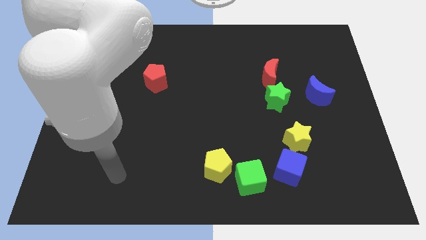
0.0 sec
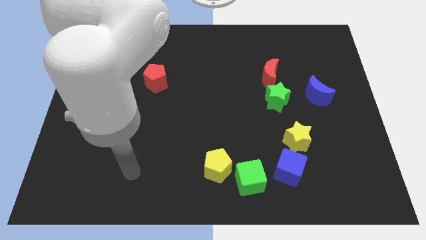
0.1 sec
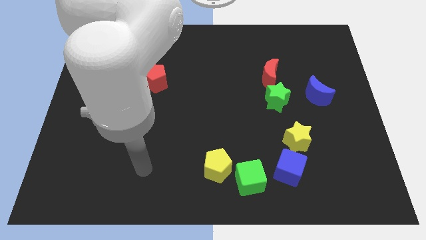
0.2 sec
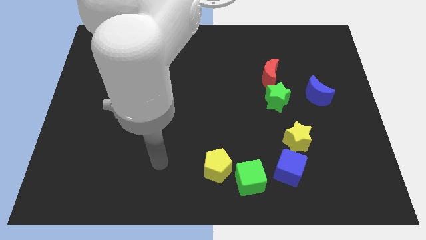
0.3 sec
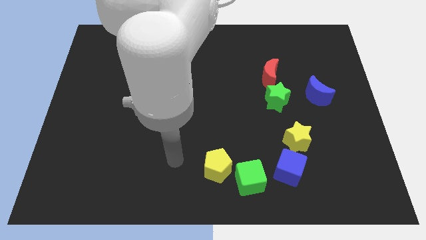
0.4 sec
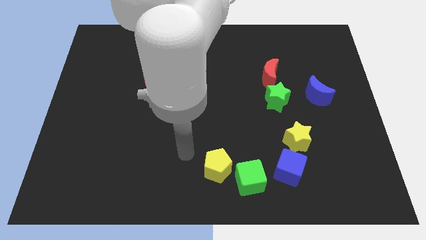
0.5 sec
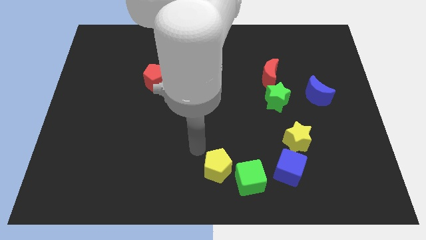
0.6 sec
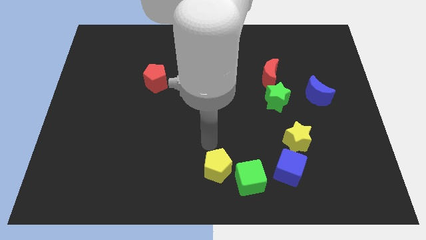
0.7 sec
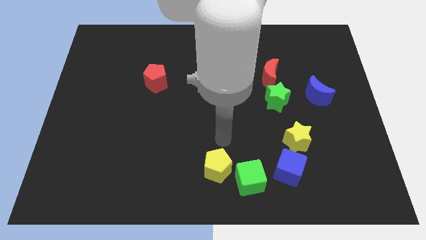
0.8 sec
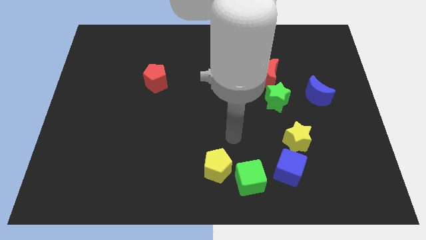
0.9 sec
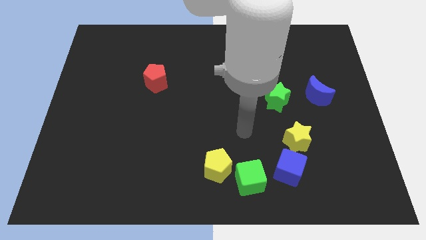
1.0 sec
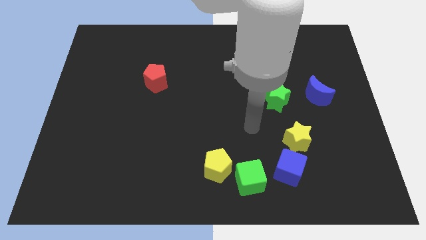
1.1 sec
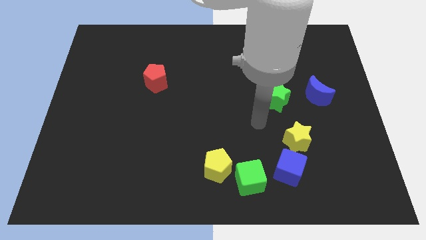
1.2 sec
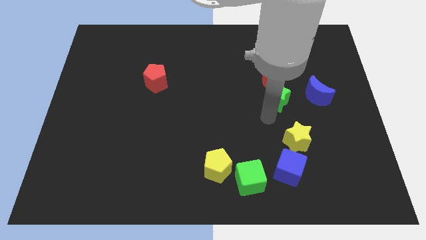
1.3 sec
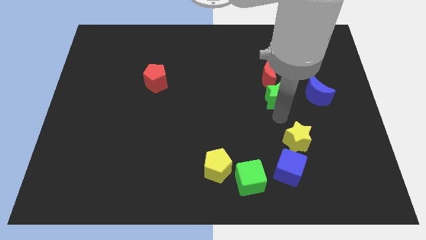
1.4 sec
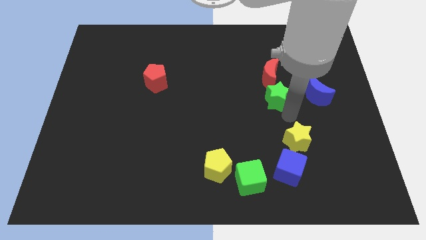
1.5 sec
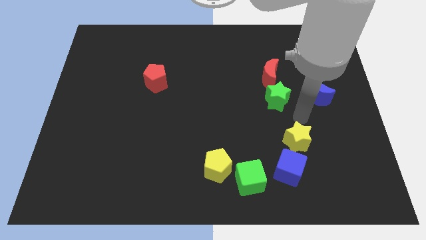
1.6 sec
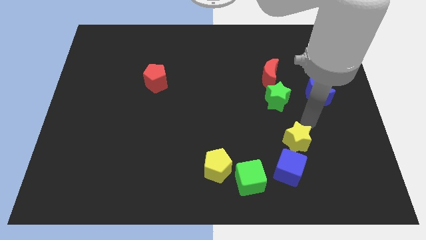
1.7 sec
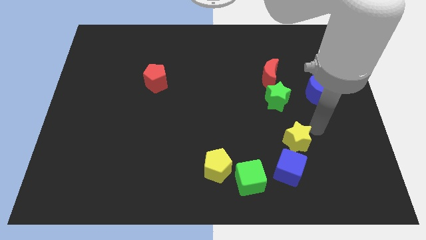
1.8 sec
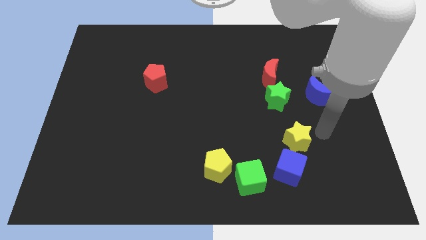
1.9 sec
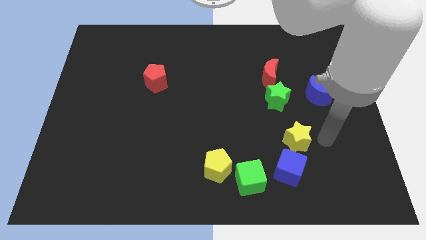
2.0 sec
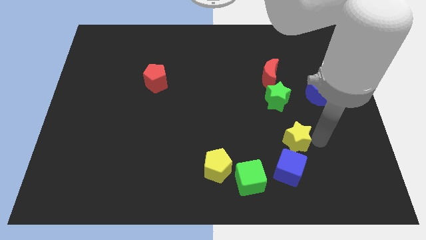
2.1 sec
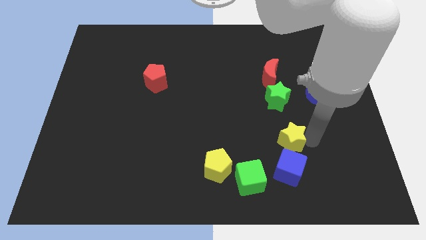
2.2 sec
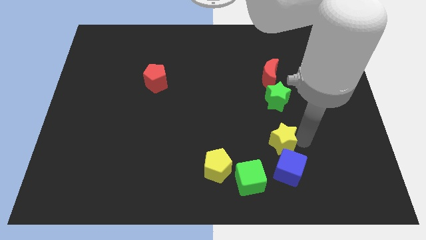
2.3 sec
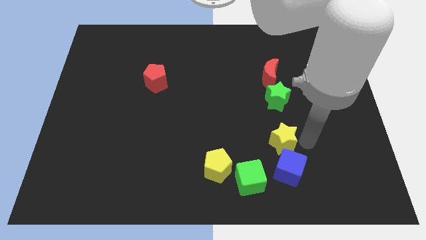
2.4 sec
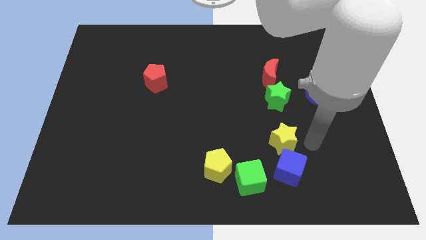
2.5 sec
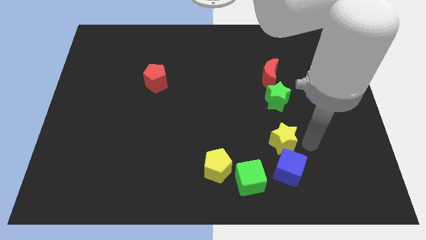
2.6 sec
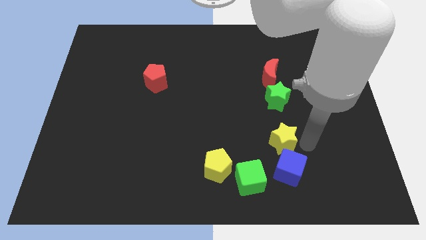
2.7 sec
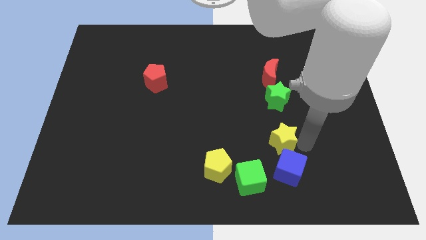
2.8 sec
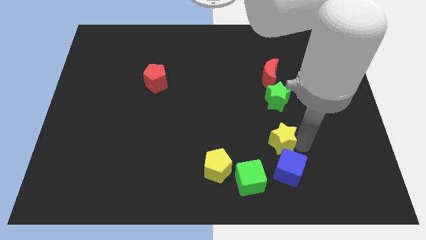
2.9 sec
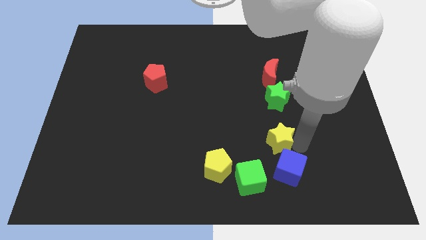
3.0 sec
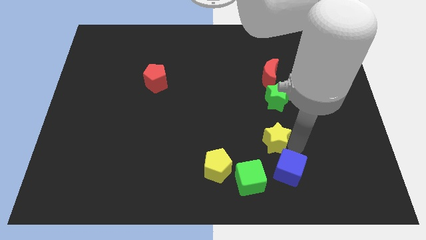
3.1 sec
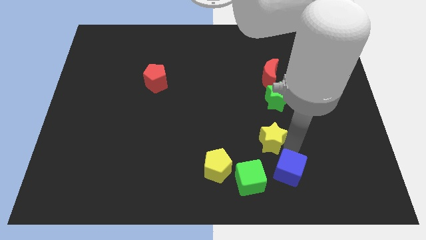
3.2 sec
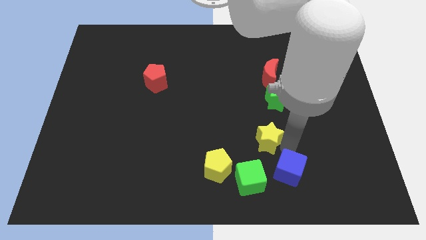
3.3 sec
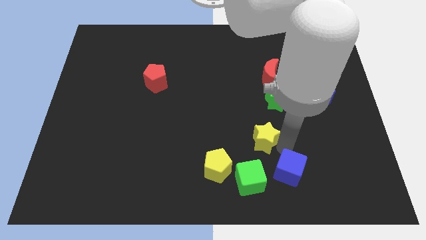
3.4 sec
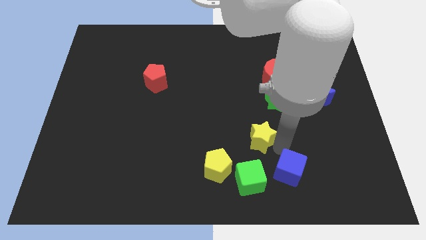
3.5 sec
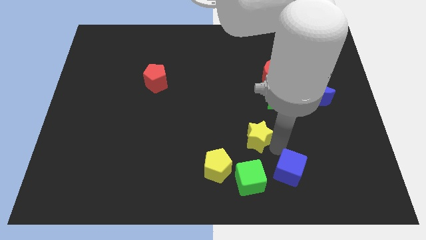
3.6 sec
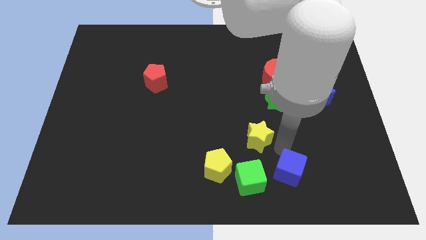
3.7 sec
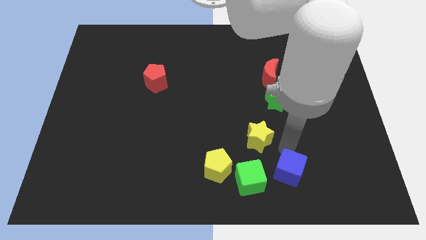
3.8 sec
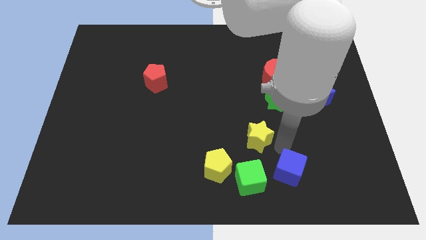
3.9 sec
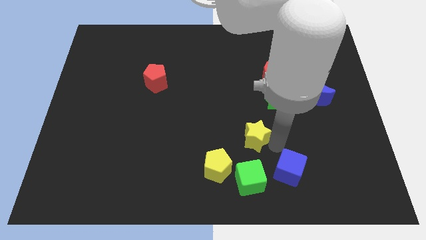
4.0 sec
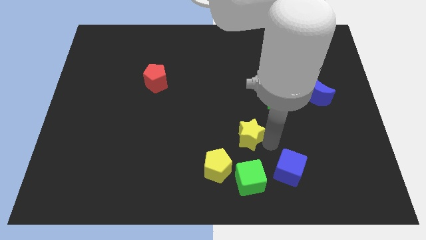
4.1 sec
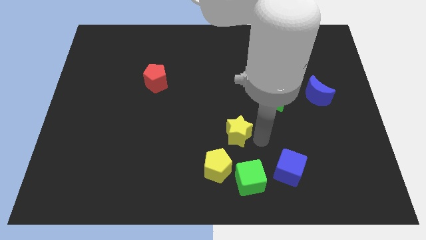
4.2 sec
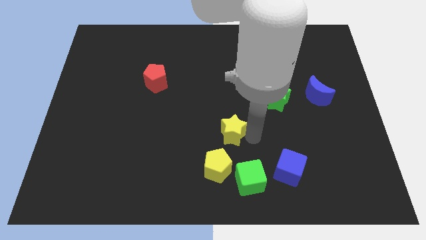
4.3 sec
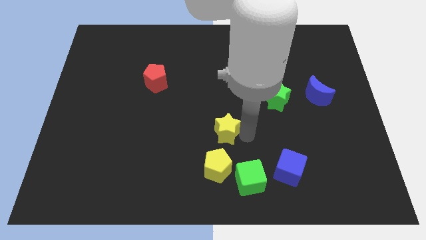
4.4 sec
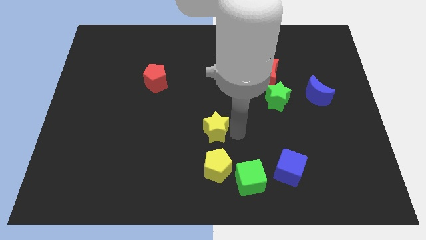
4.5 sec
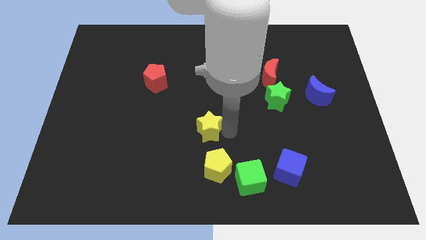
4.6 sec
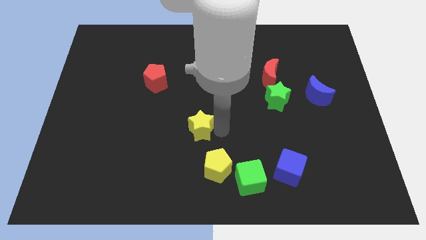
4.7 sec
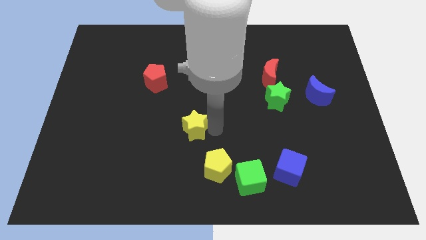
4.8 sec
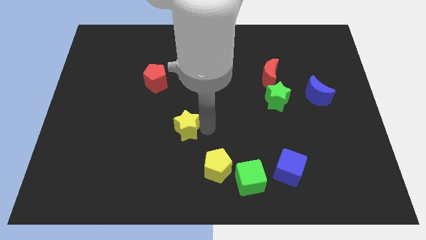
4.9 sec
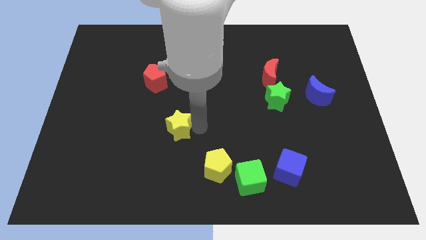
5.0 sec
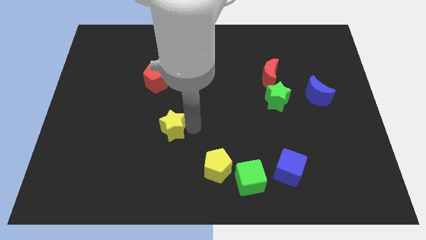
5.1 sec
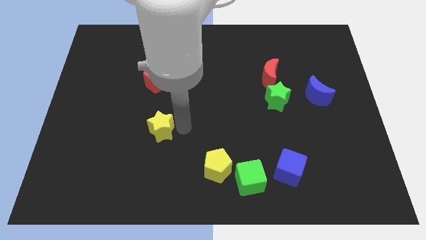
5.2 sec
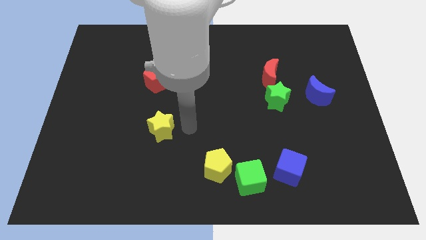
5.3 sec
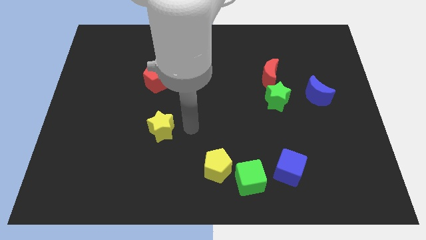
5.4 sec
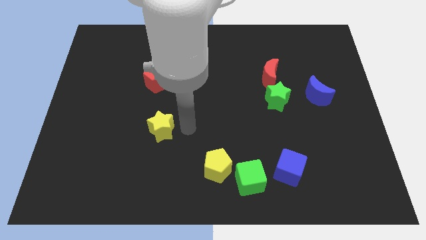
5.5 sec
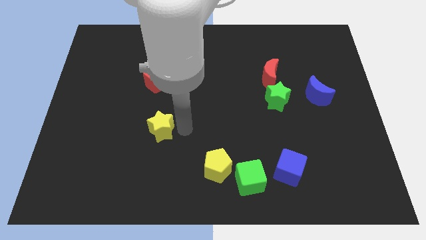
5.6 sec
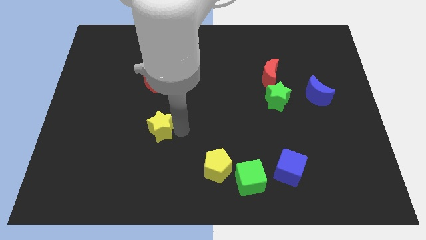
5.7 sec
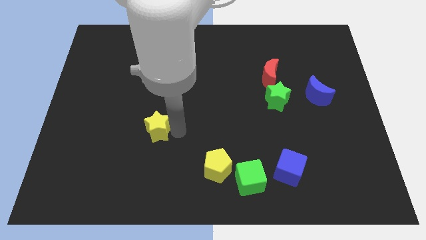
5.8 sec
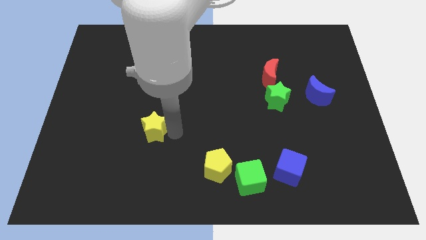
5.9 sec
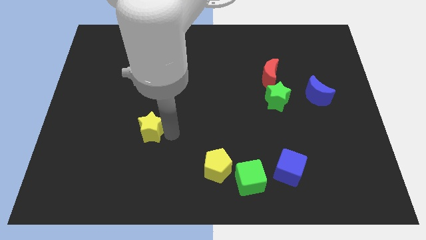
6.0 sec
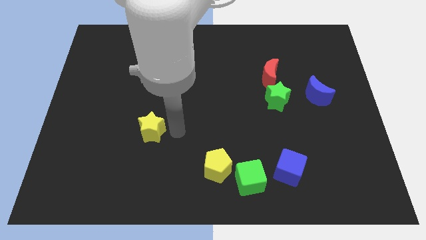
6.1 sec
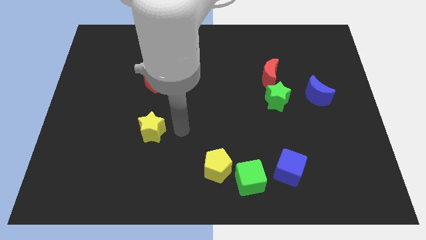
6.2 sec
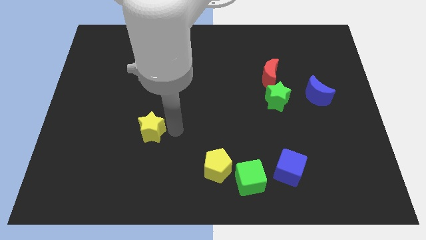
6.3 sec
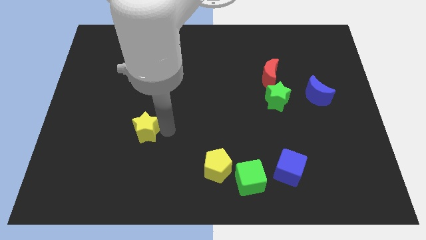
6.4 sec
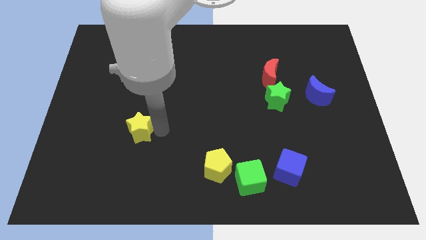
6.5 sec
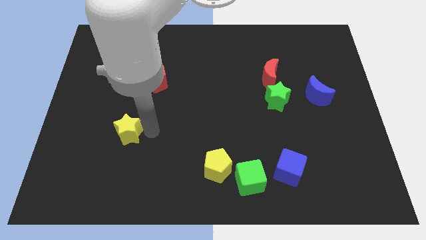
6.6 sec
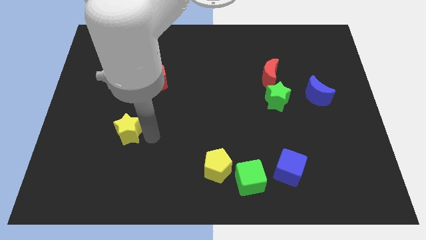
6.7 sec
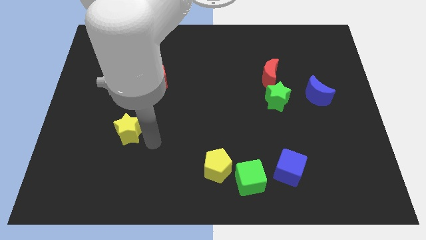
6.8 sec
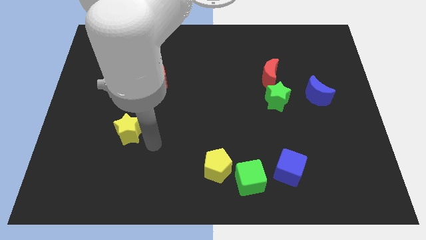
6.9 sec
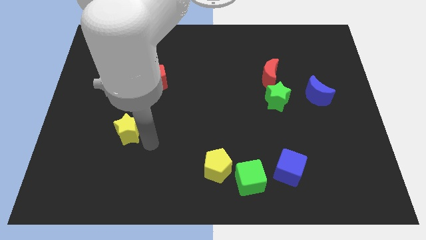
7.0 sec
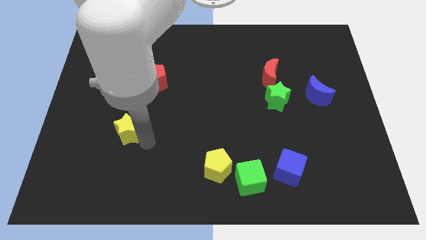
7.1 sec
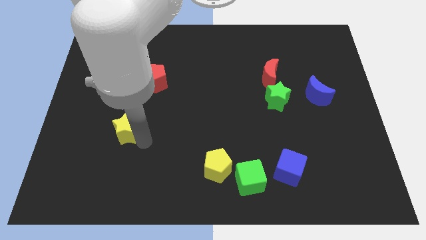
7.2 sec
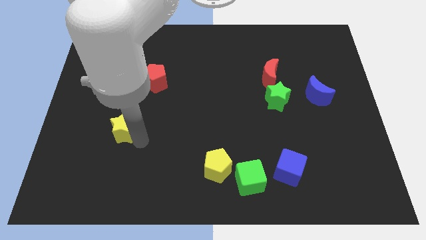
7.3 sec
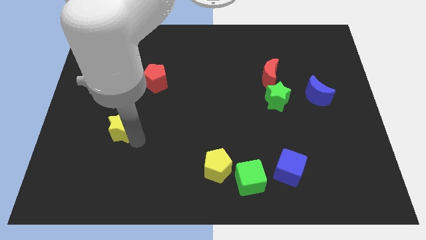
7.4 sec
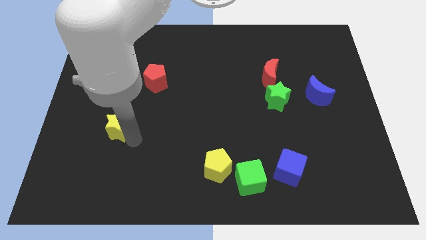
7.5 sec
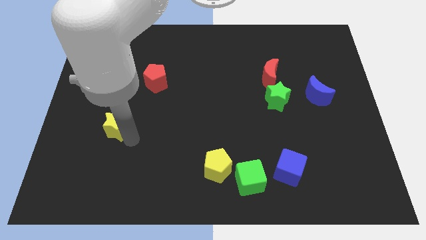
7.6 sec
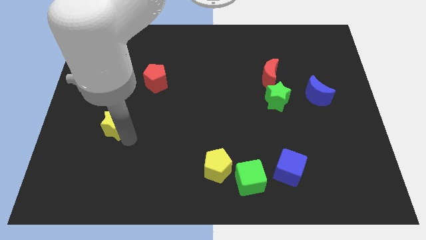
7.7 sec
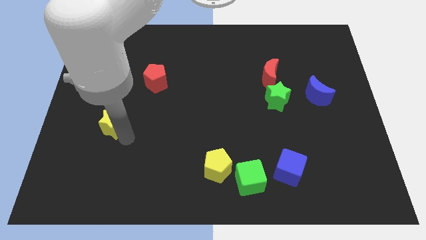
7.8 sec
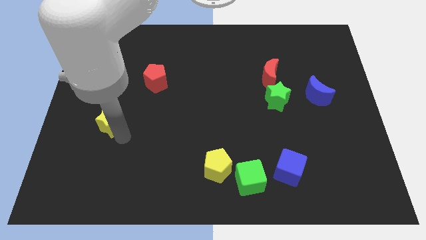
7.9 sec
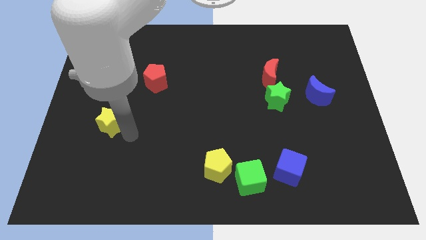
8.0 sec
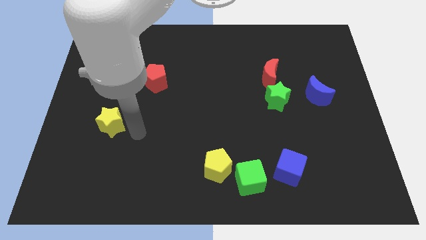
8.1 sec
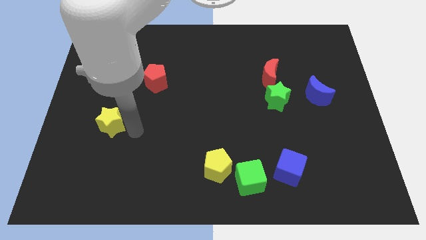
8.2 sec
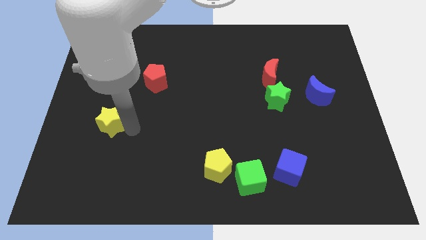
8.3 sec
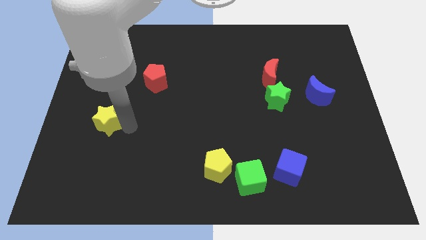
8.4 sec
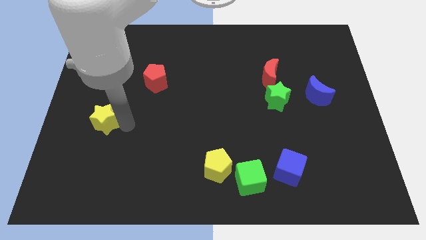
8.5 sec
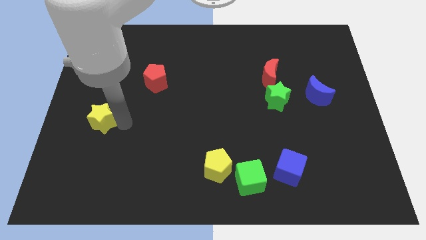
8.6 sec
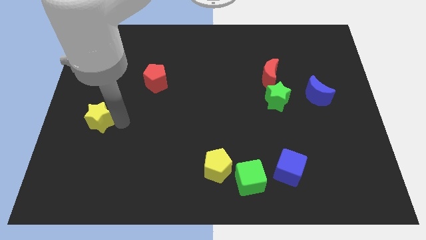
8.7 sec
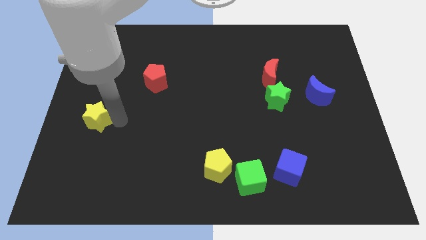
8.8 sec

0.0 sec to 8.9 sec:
push the yellow star to the center left
